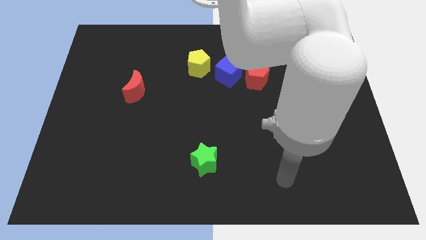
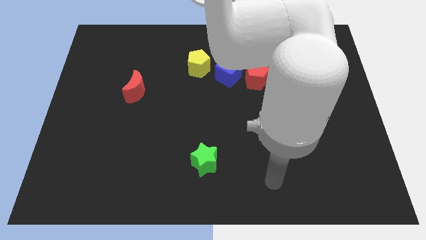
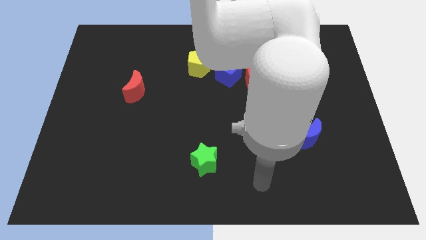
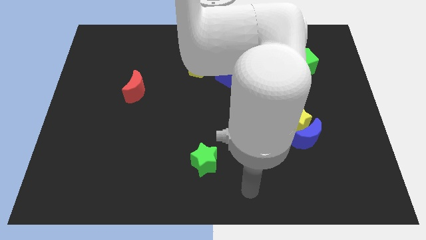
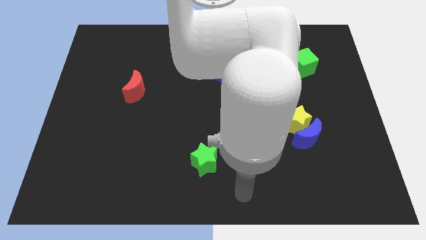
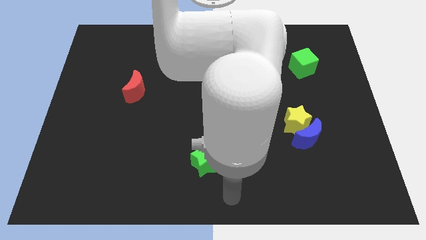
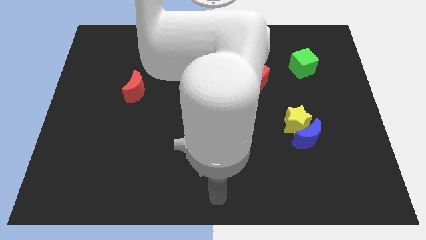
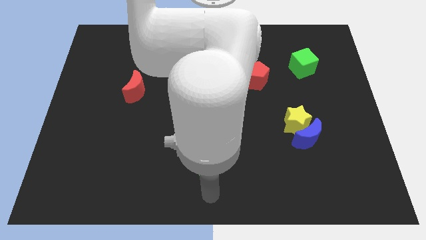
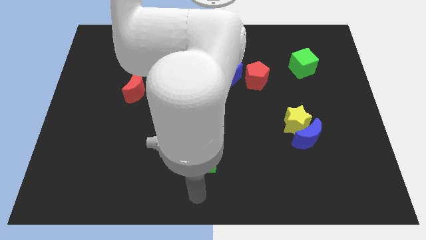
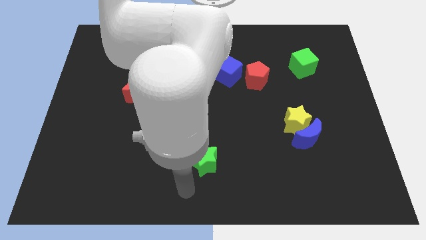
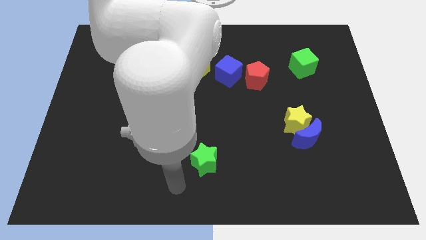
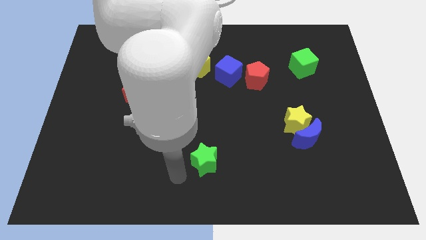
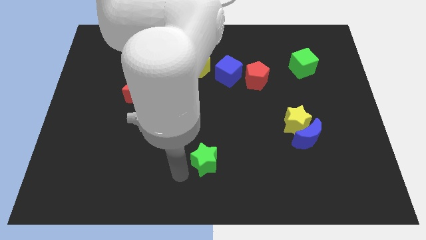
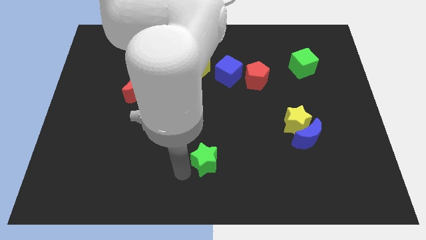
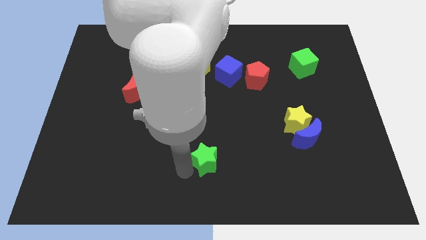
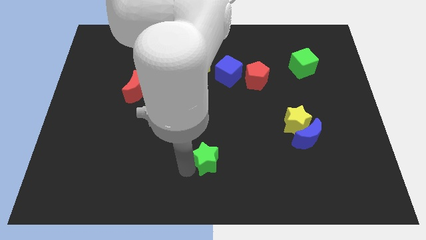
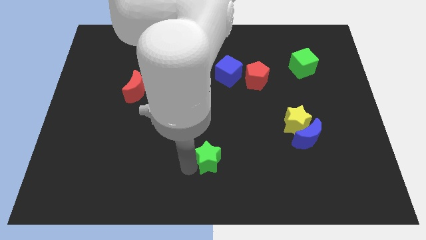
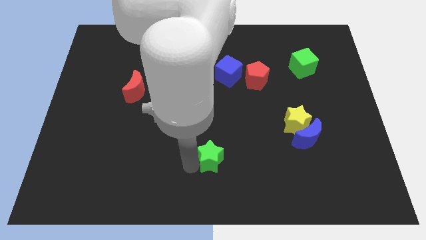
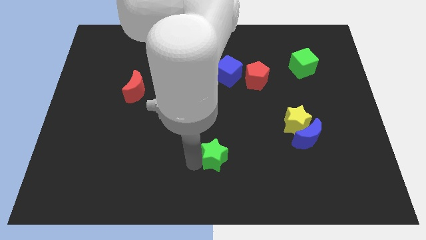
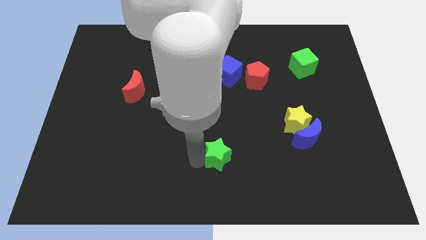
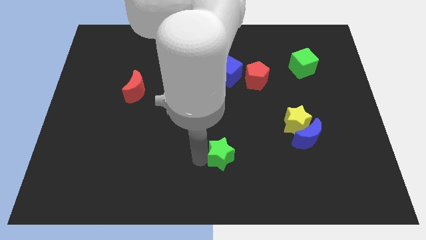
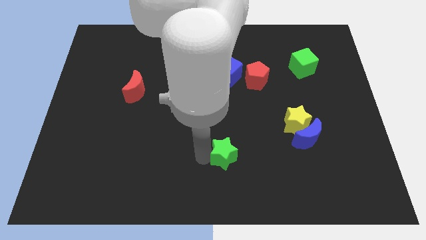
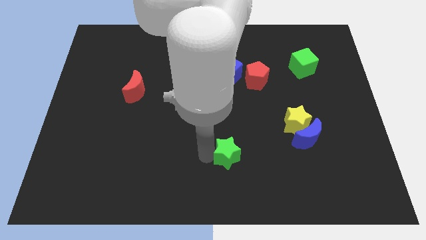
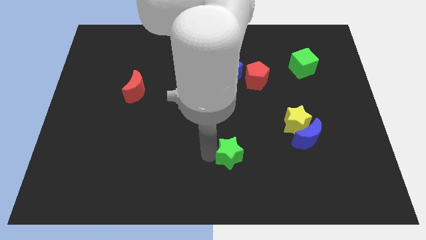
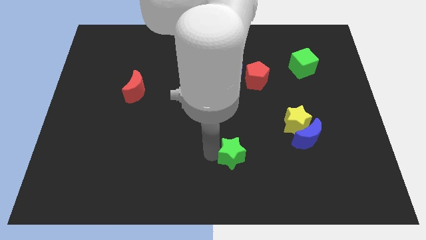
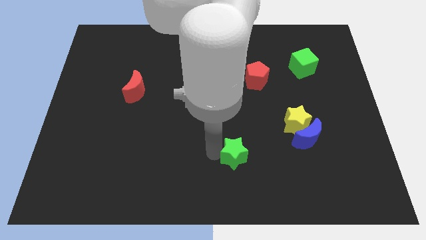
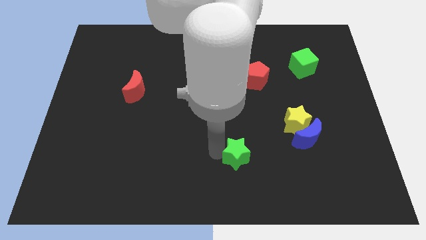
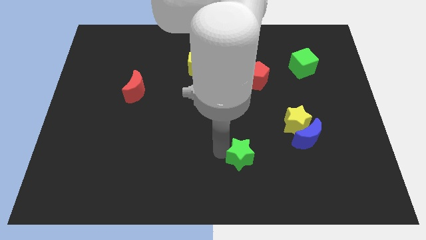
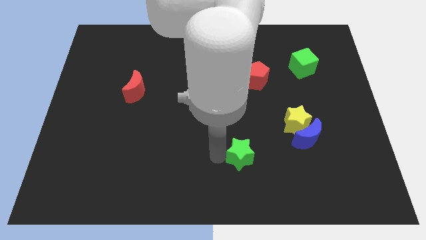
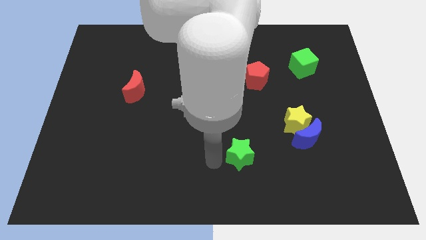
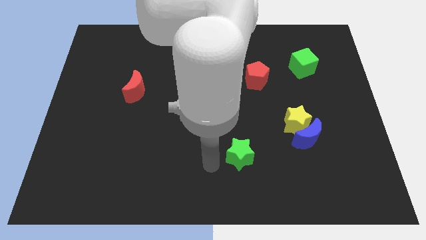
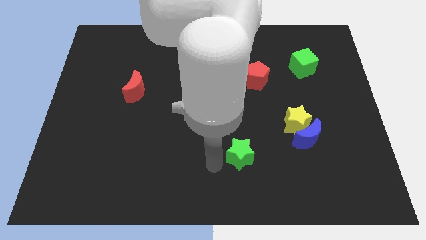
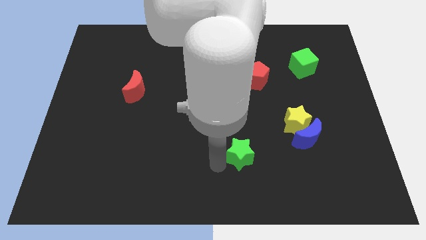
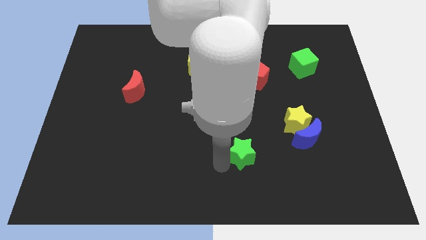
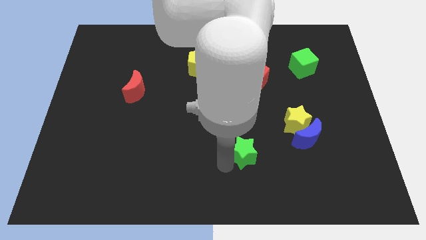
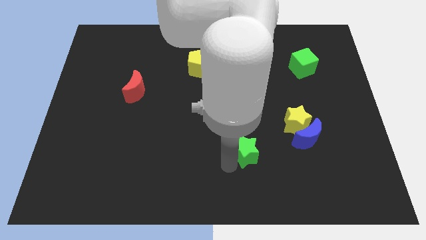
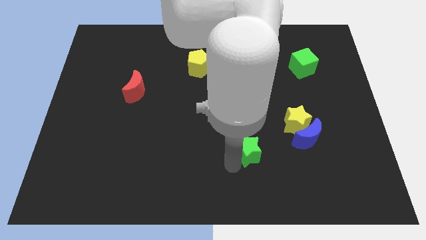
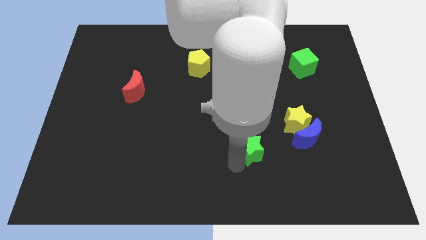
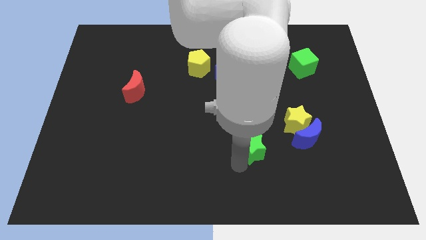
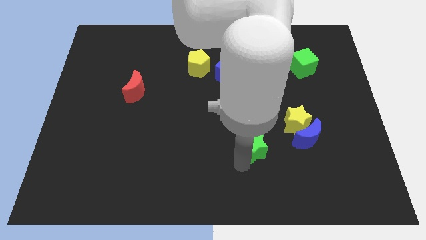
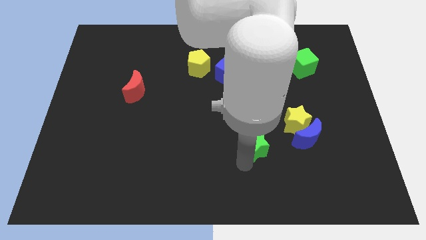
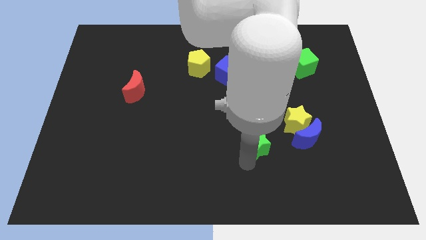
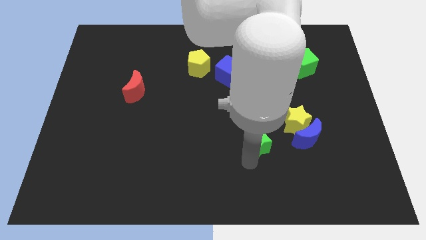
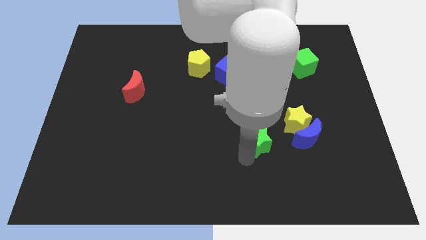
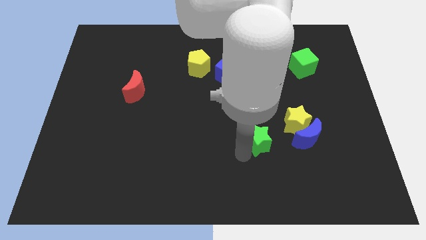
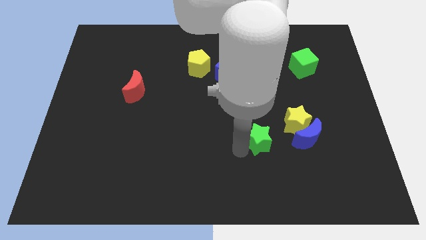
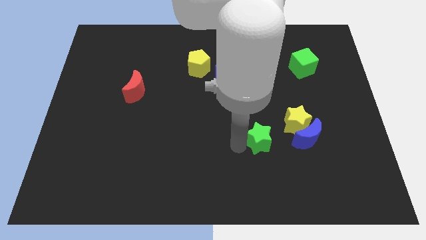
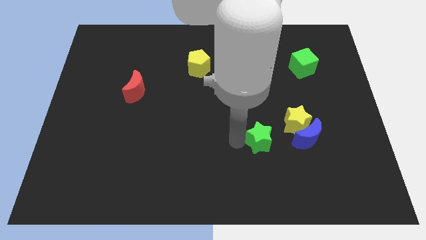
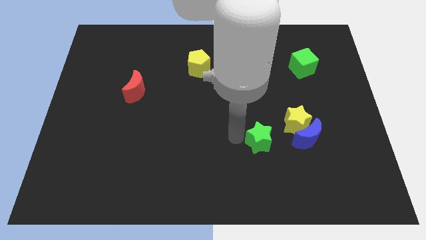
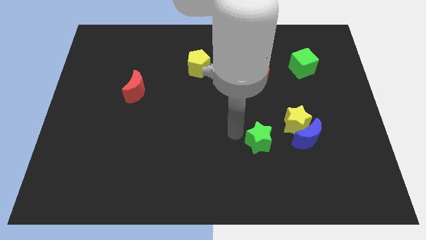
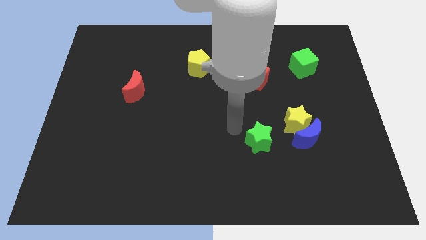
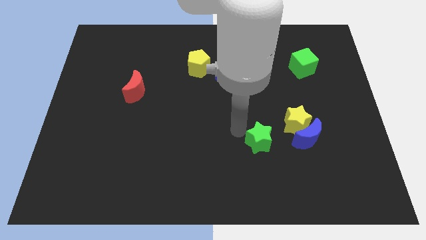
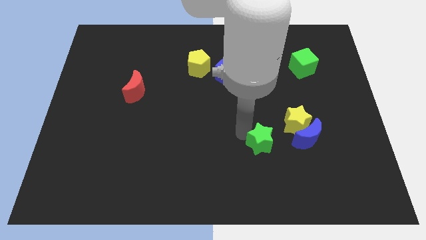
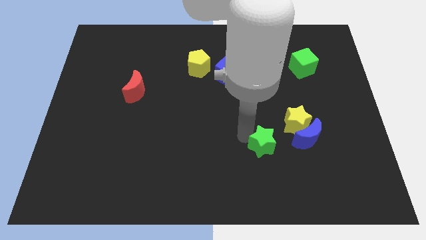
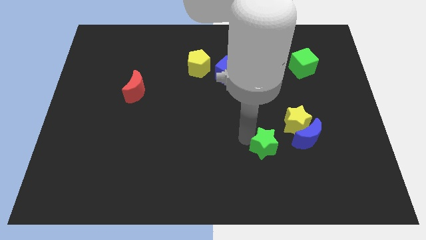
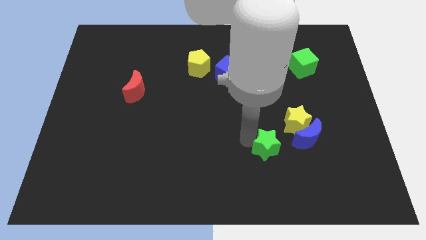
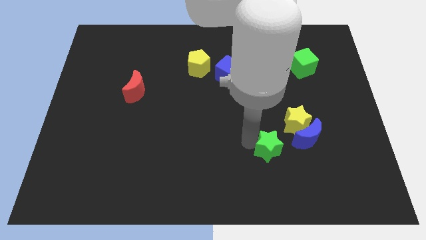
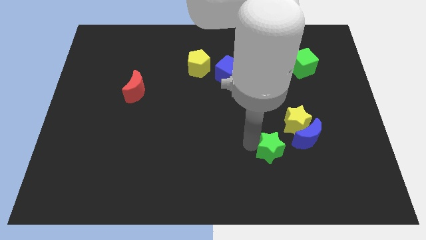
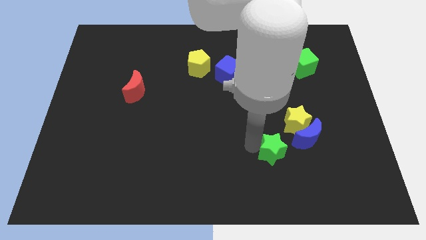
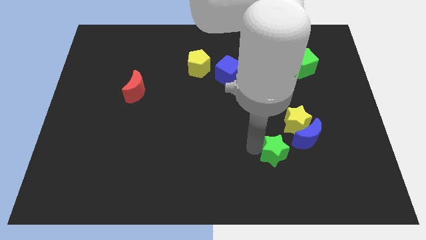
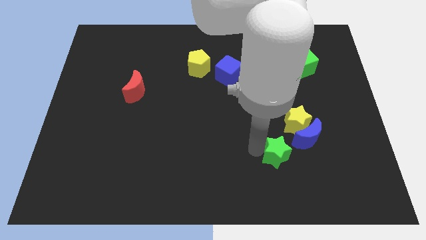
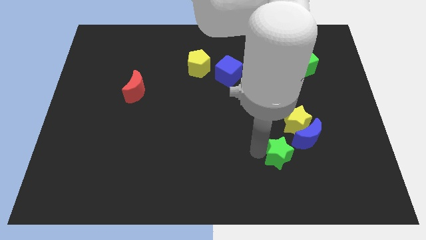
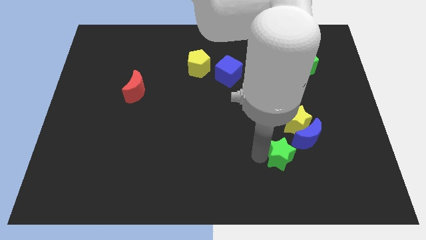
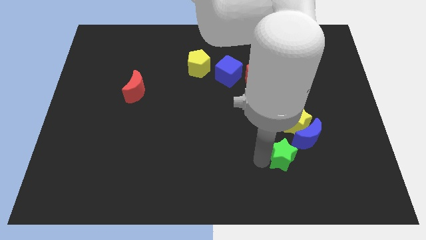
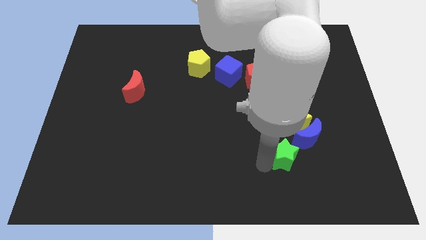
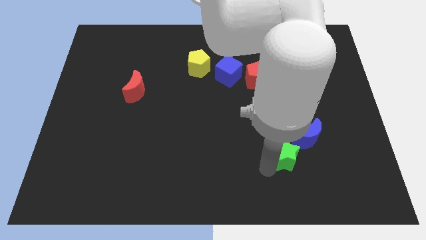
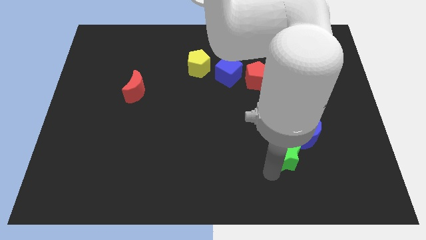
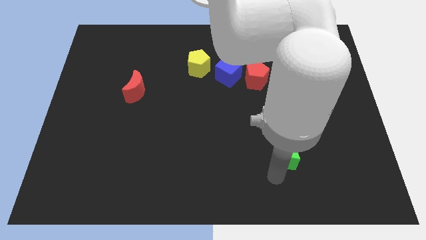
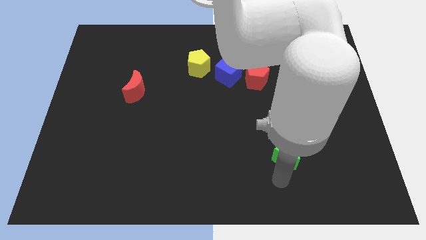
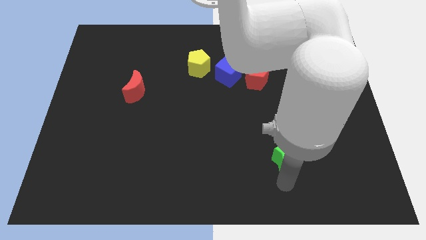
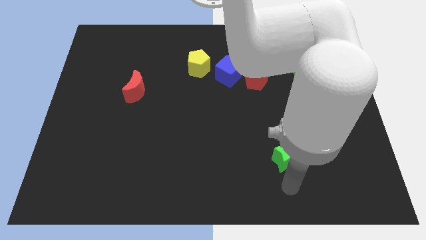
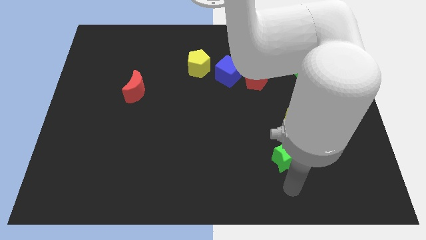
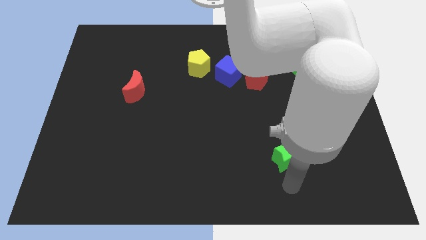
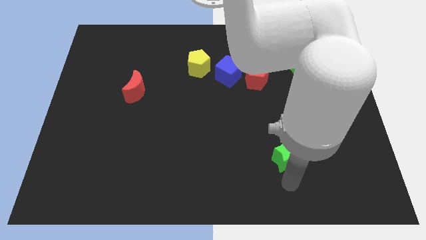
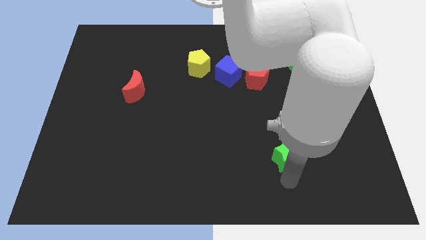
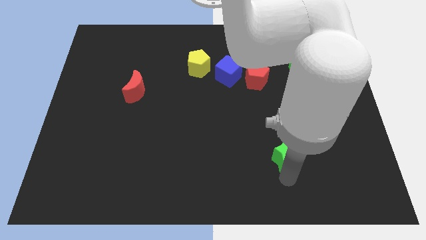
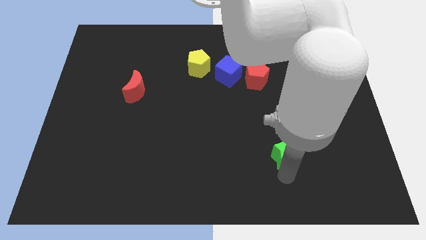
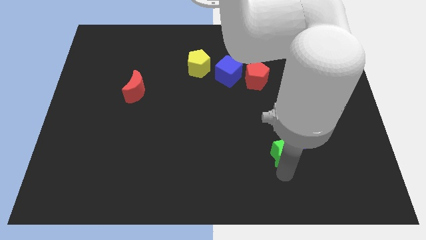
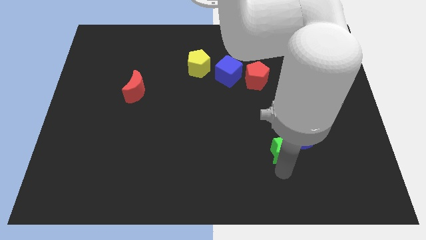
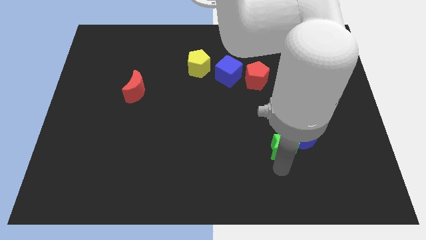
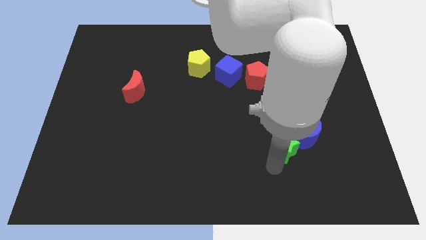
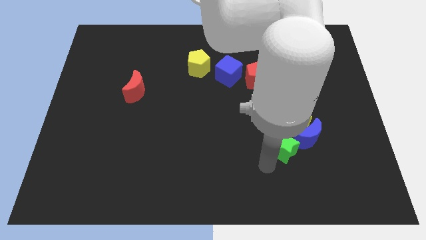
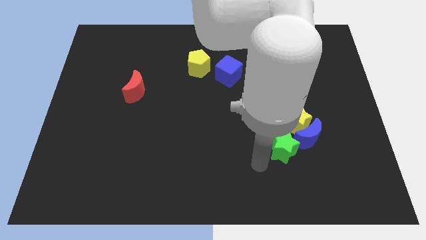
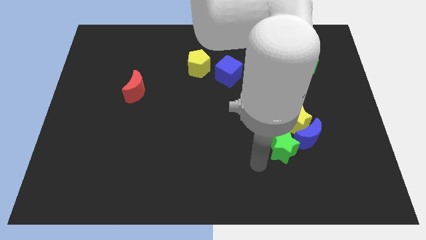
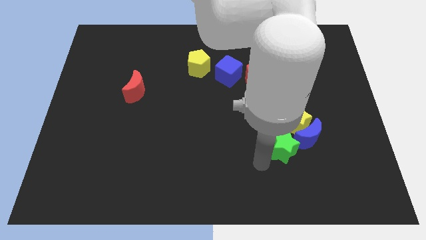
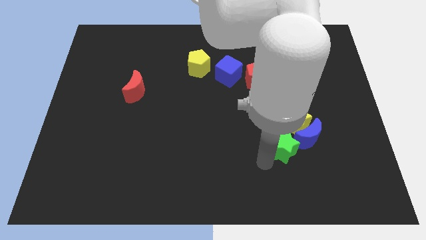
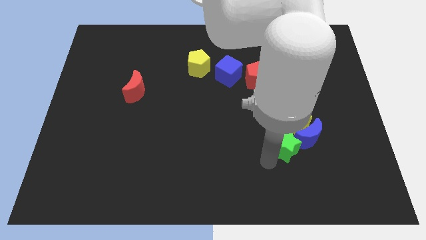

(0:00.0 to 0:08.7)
push the green star towards the blue moon
